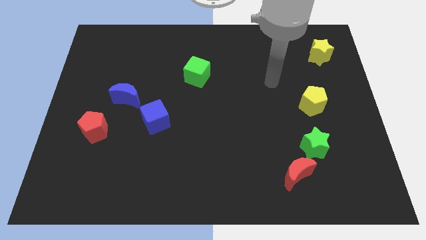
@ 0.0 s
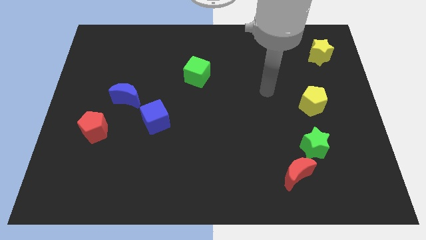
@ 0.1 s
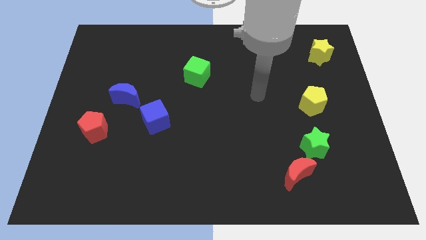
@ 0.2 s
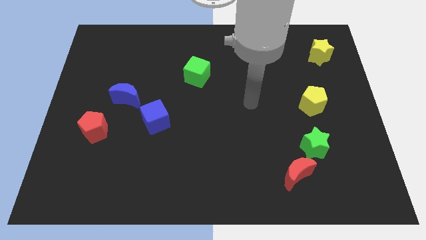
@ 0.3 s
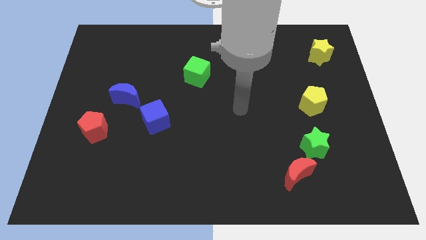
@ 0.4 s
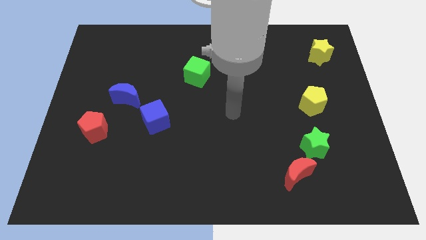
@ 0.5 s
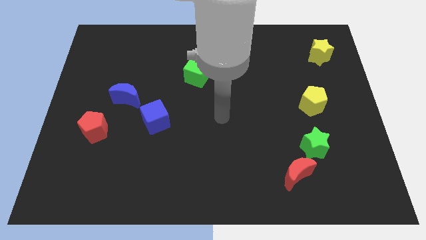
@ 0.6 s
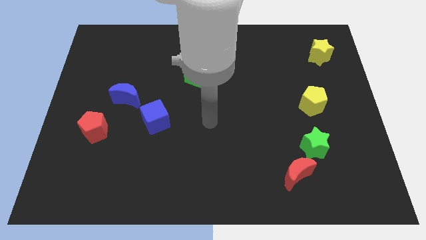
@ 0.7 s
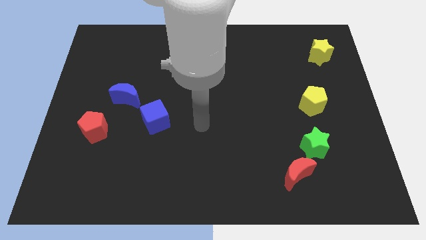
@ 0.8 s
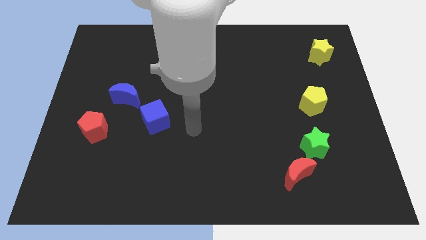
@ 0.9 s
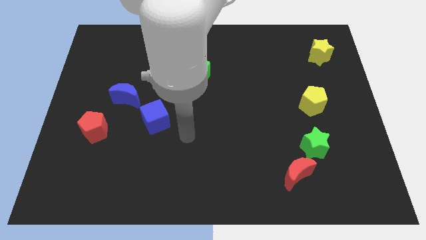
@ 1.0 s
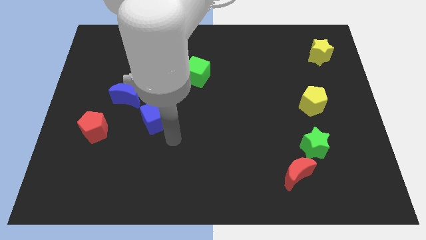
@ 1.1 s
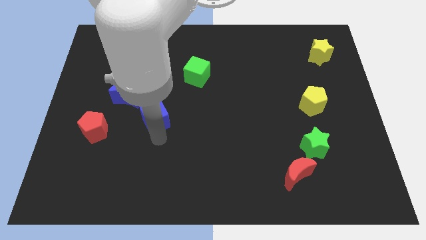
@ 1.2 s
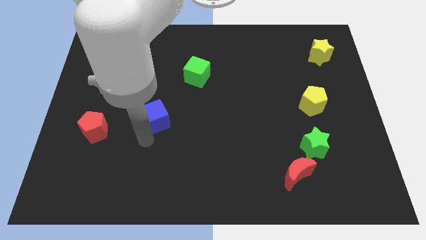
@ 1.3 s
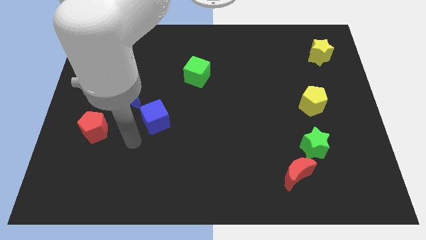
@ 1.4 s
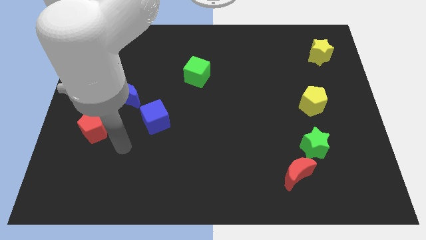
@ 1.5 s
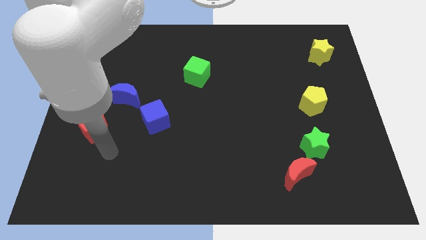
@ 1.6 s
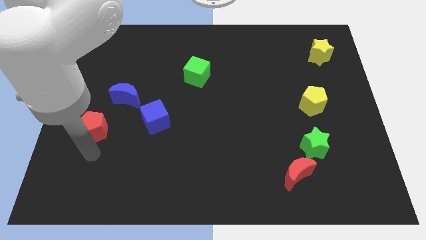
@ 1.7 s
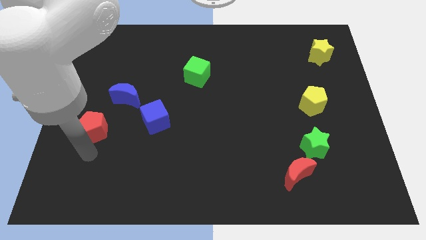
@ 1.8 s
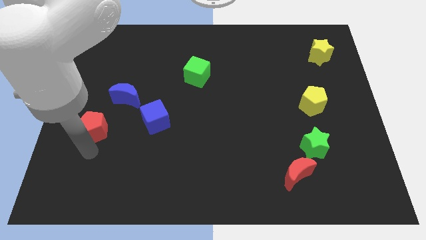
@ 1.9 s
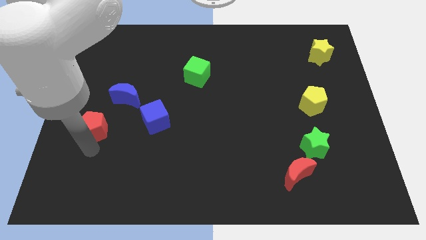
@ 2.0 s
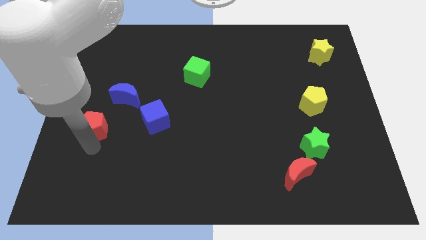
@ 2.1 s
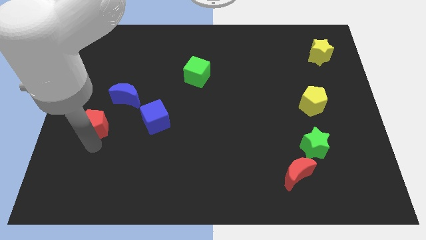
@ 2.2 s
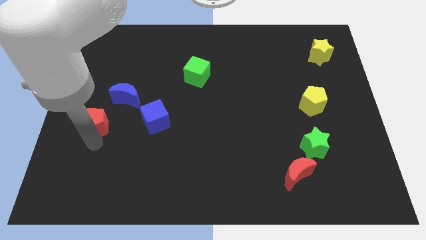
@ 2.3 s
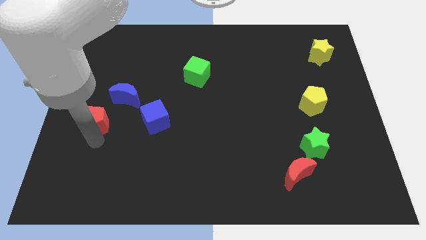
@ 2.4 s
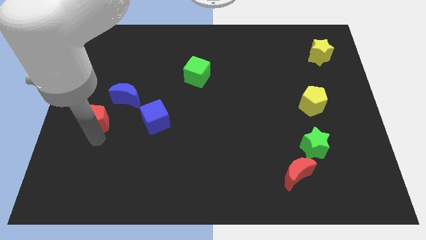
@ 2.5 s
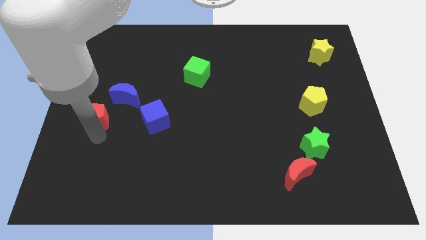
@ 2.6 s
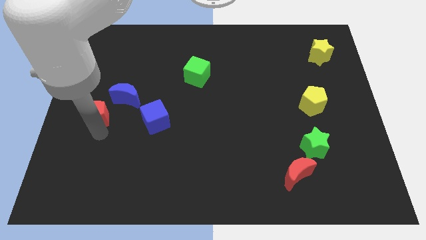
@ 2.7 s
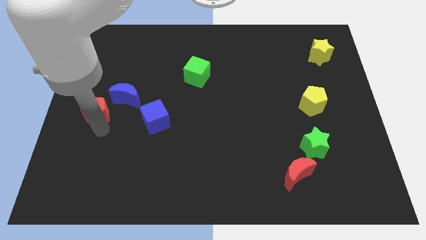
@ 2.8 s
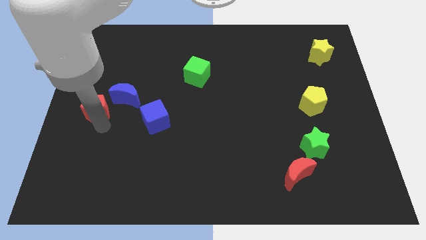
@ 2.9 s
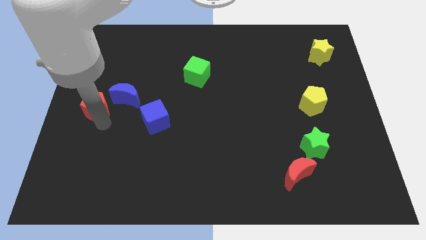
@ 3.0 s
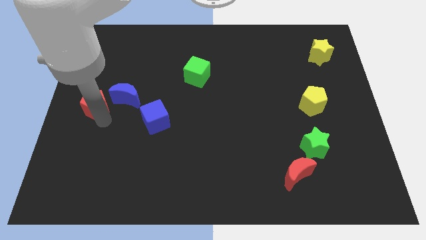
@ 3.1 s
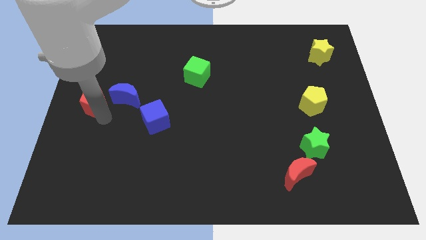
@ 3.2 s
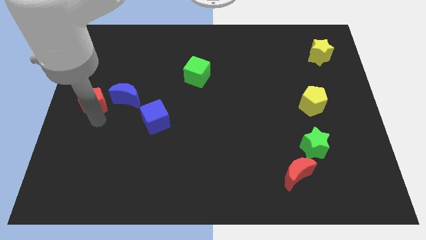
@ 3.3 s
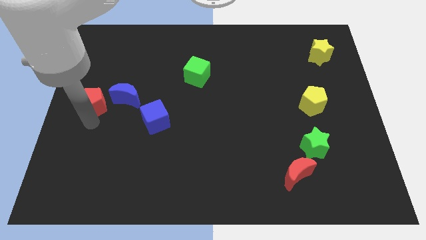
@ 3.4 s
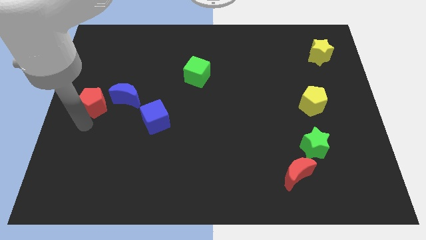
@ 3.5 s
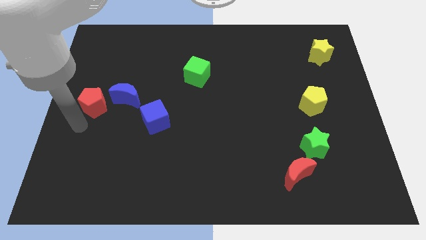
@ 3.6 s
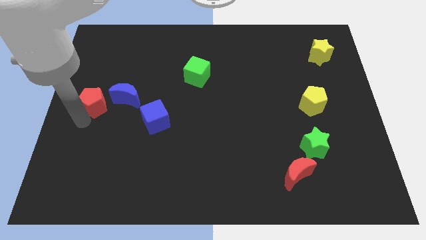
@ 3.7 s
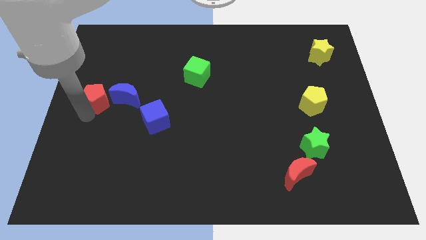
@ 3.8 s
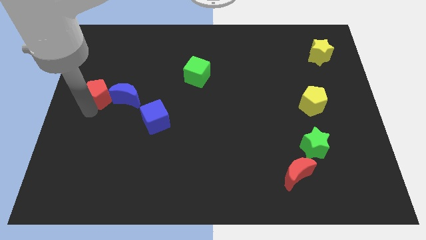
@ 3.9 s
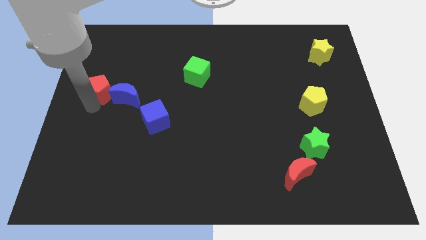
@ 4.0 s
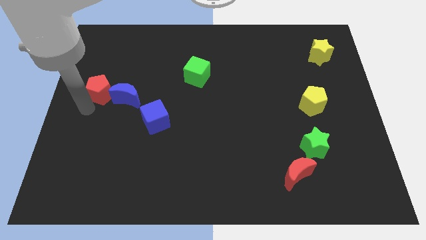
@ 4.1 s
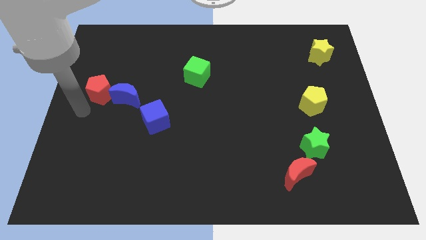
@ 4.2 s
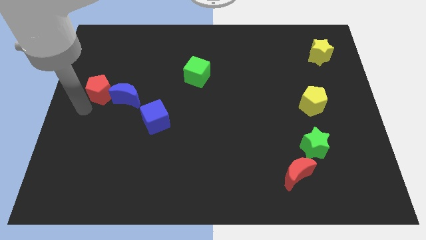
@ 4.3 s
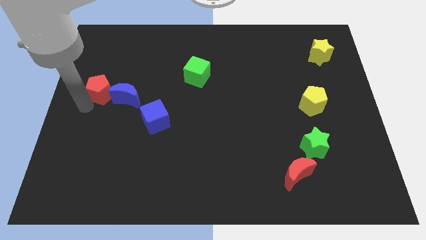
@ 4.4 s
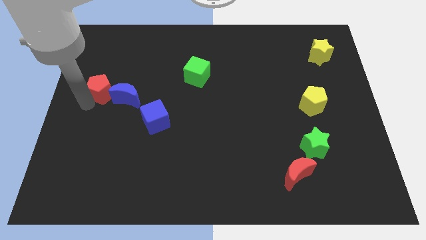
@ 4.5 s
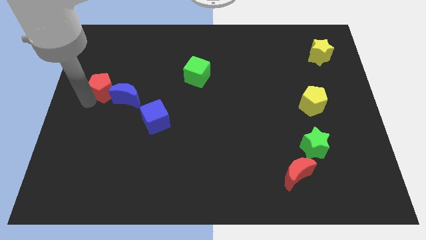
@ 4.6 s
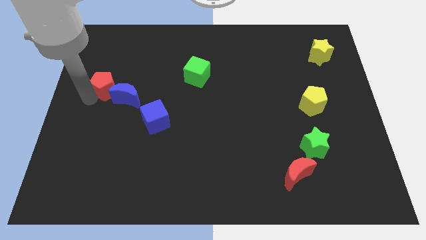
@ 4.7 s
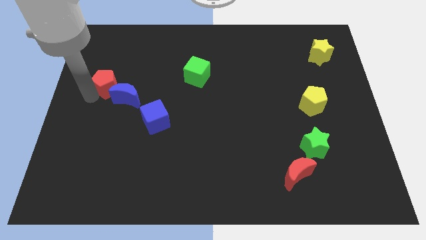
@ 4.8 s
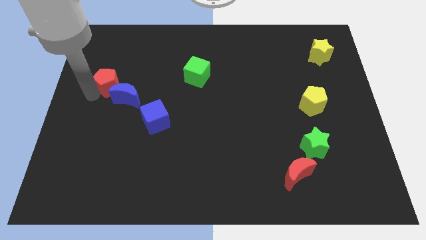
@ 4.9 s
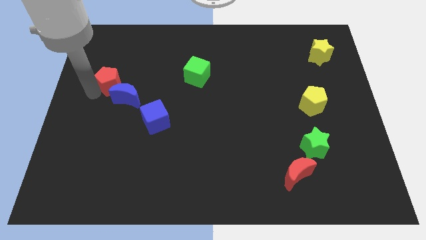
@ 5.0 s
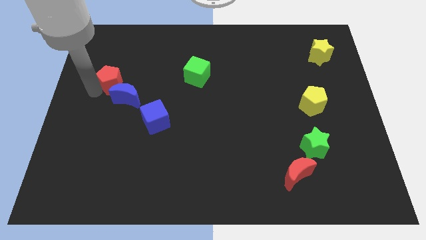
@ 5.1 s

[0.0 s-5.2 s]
move the red pentagon to the top of the blue moon

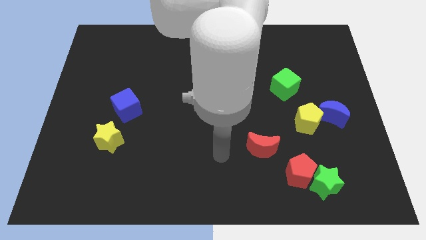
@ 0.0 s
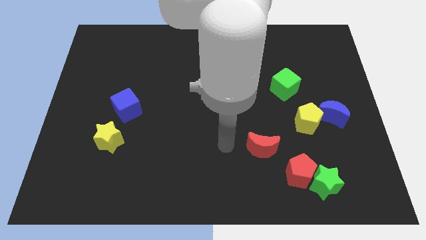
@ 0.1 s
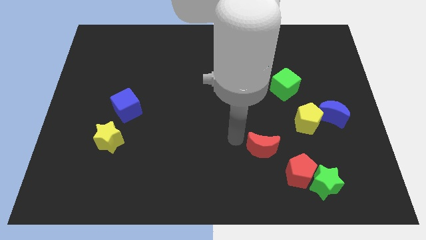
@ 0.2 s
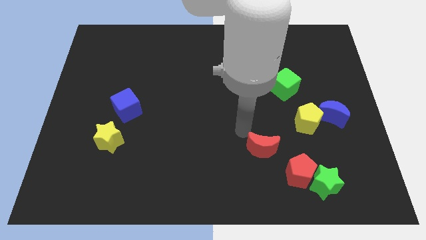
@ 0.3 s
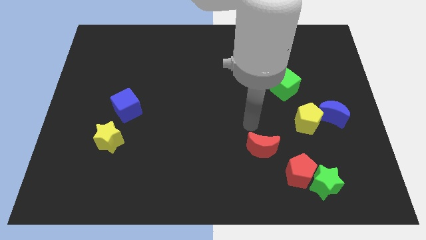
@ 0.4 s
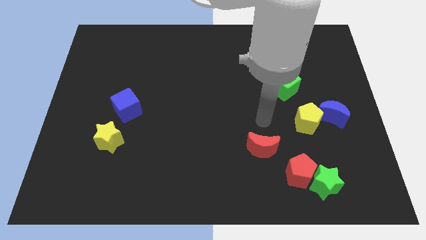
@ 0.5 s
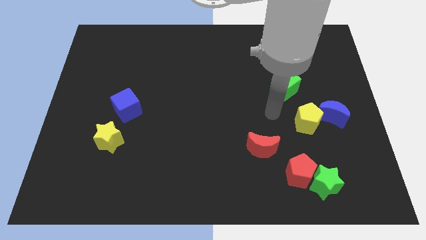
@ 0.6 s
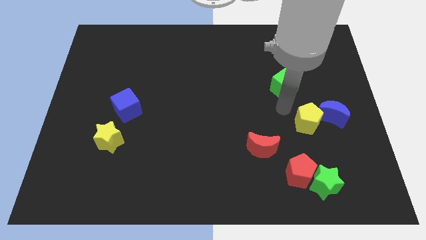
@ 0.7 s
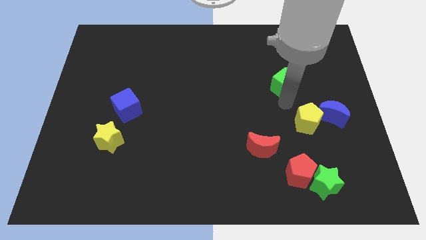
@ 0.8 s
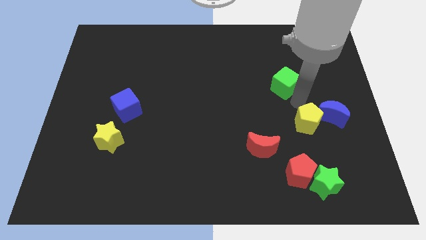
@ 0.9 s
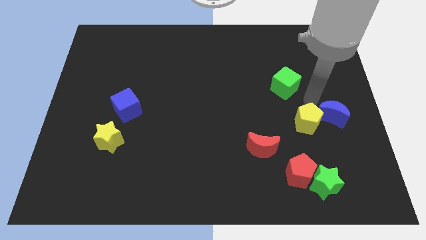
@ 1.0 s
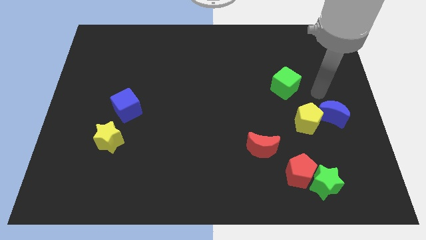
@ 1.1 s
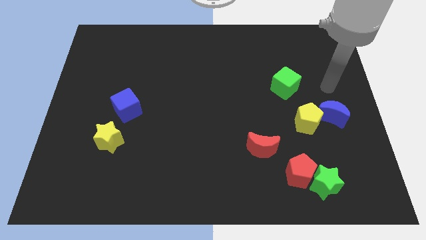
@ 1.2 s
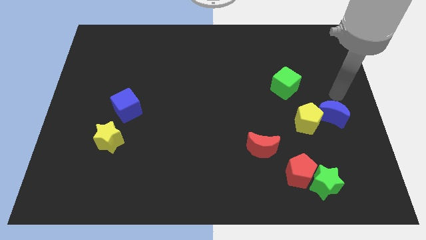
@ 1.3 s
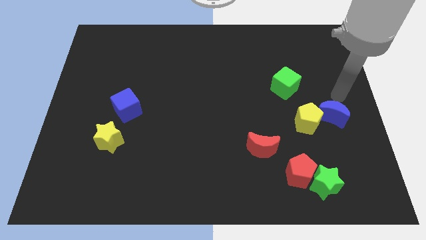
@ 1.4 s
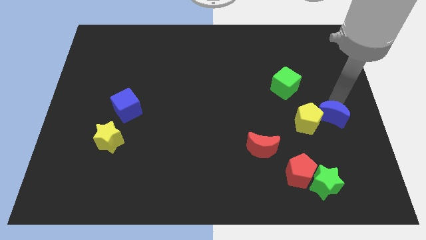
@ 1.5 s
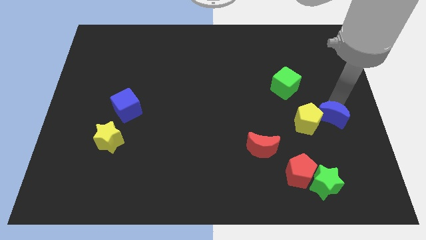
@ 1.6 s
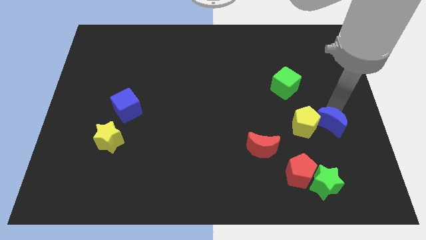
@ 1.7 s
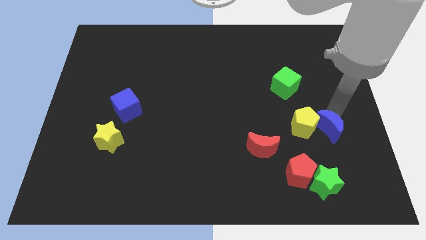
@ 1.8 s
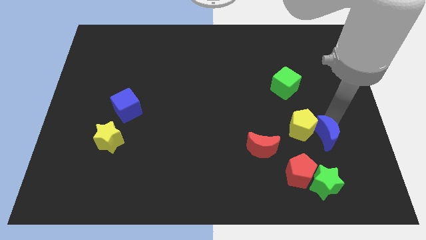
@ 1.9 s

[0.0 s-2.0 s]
move the blue moon to the top right of the red pentagon

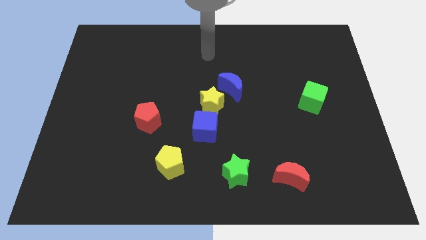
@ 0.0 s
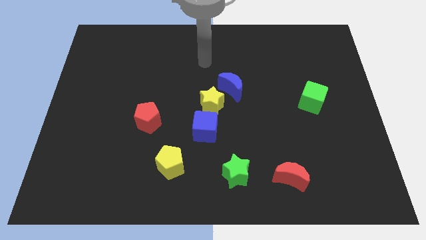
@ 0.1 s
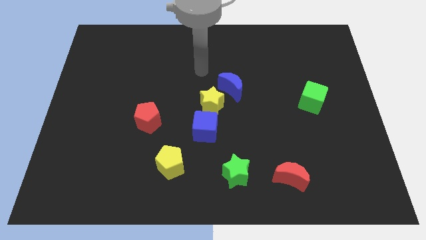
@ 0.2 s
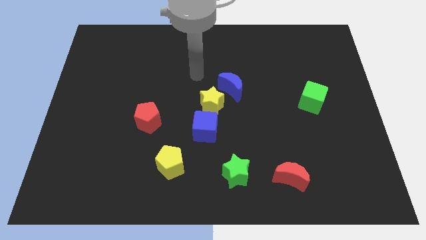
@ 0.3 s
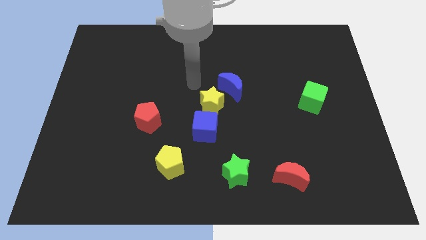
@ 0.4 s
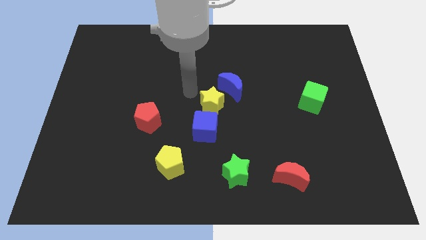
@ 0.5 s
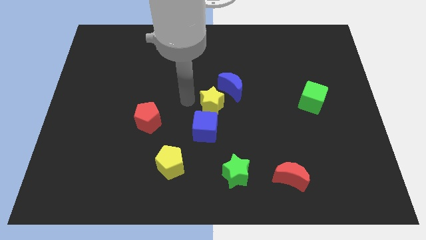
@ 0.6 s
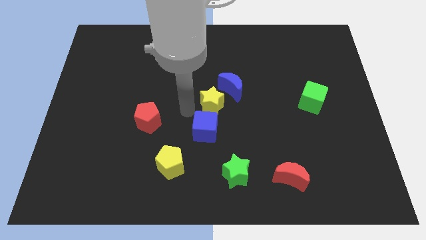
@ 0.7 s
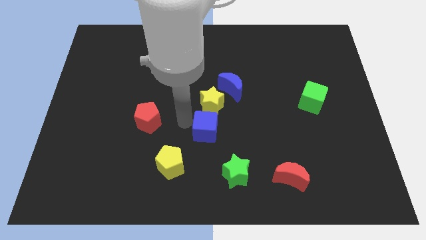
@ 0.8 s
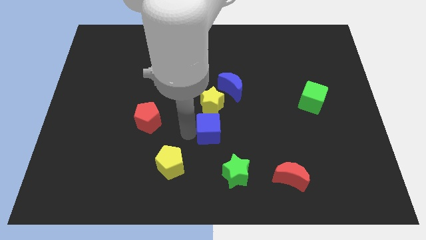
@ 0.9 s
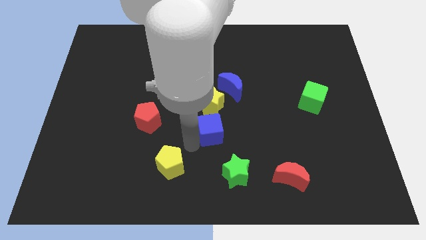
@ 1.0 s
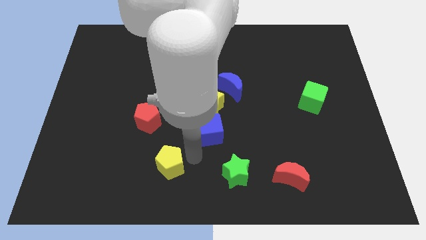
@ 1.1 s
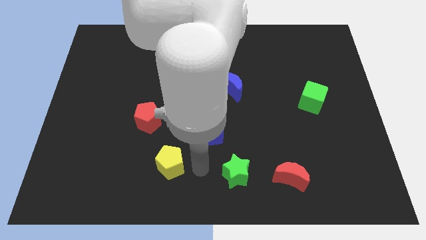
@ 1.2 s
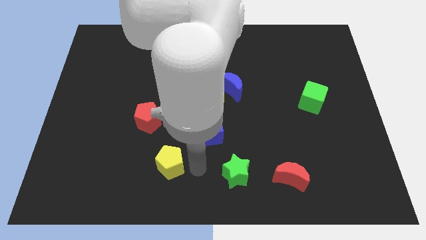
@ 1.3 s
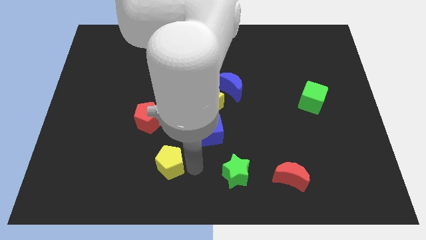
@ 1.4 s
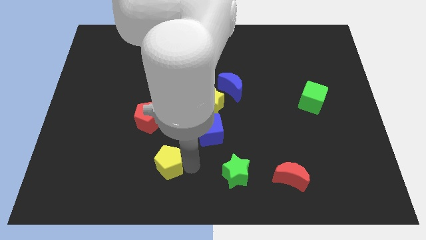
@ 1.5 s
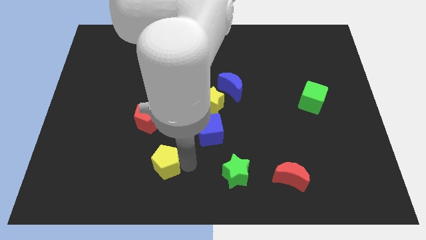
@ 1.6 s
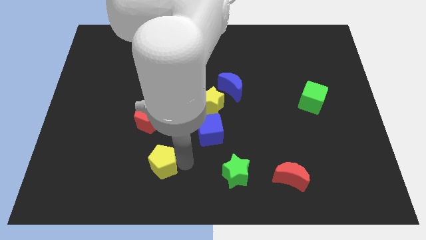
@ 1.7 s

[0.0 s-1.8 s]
put the yellow pentagon below the red pentagon
